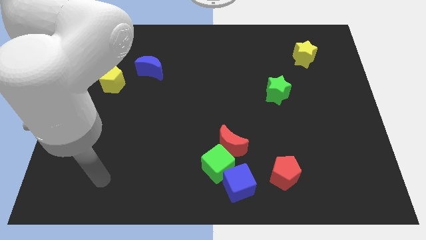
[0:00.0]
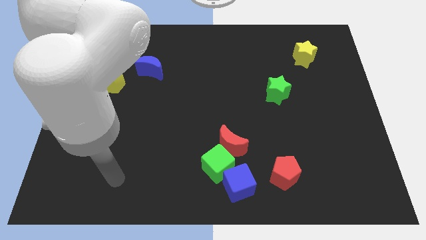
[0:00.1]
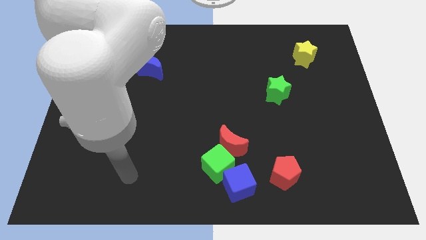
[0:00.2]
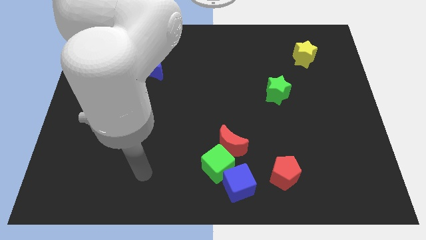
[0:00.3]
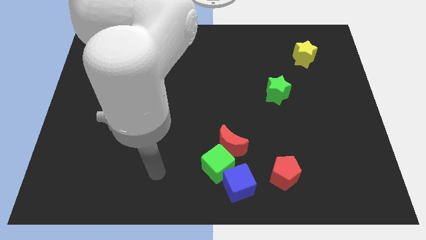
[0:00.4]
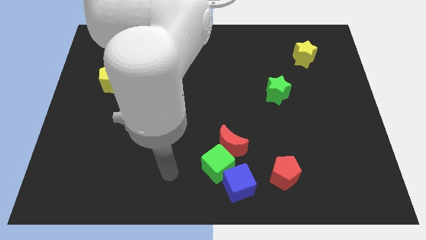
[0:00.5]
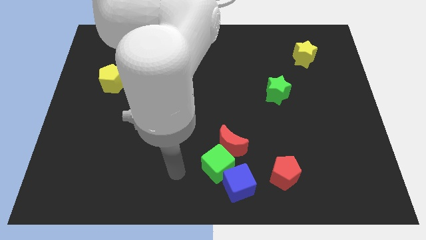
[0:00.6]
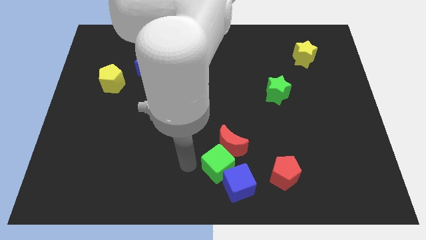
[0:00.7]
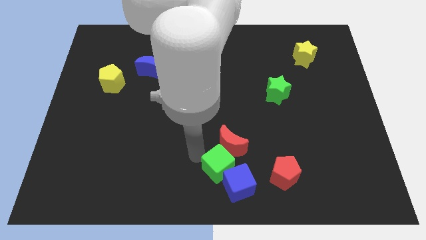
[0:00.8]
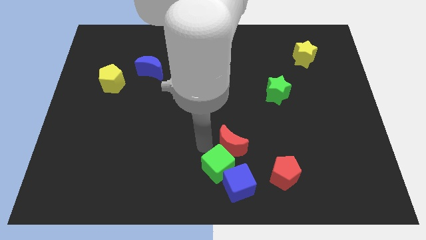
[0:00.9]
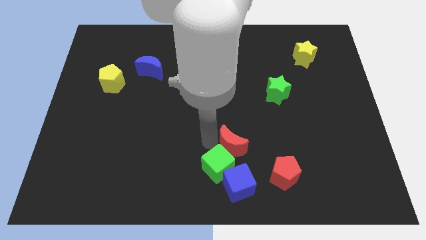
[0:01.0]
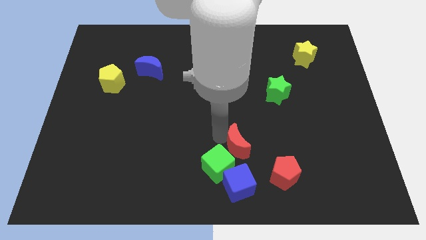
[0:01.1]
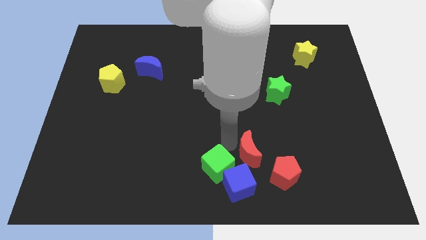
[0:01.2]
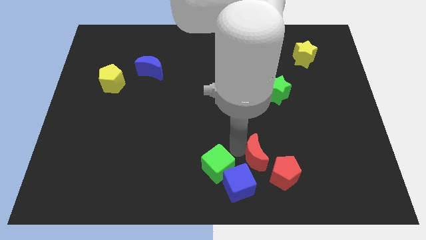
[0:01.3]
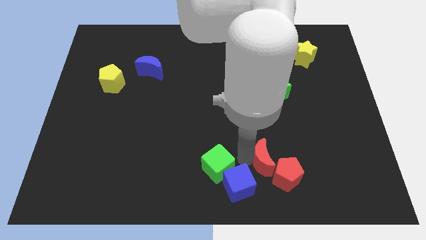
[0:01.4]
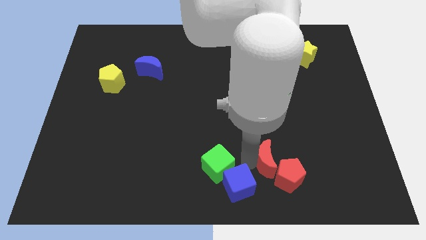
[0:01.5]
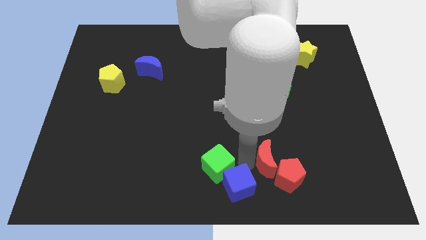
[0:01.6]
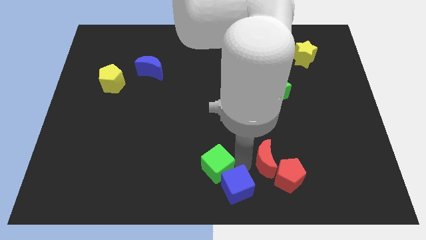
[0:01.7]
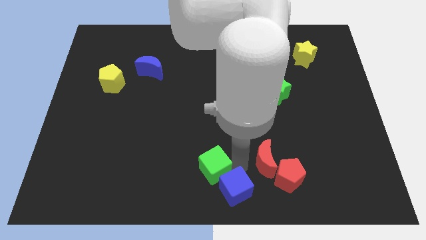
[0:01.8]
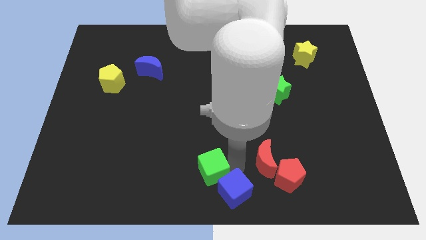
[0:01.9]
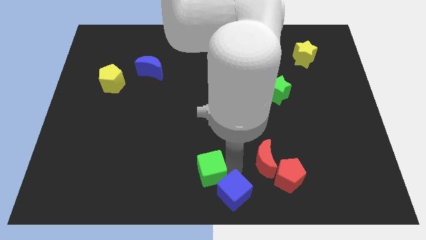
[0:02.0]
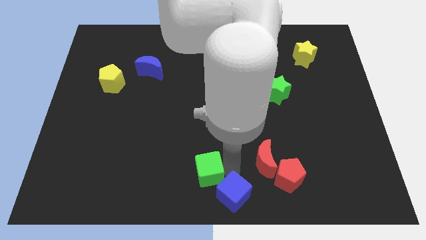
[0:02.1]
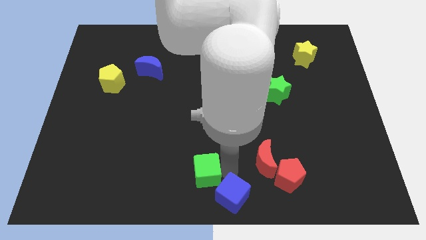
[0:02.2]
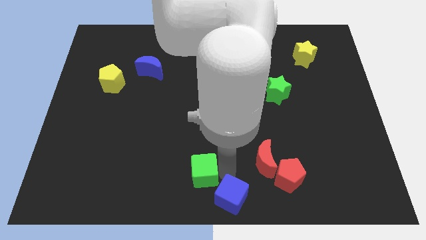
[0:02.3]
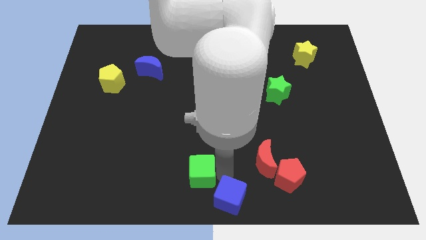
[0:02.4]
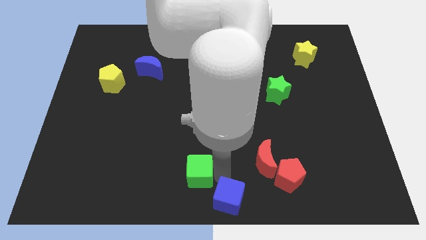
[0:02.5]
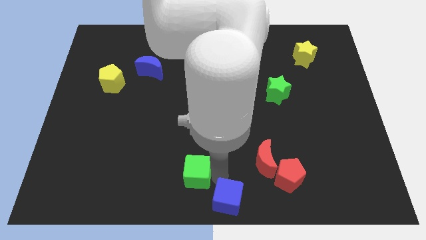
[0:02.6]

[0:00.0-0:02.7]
move the green cube away from the red moon and blue cube

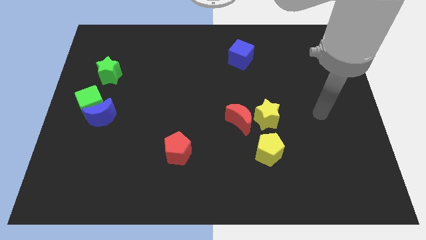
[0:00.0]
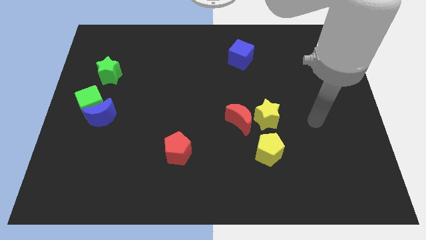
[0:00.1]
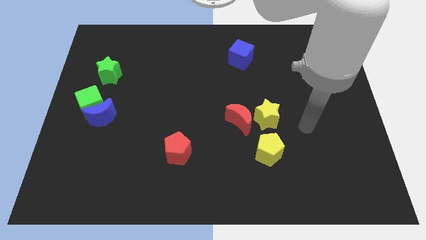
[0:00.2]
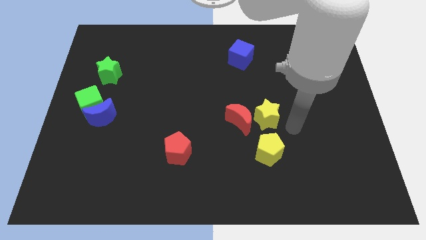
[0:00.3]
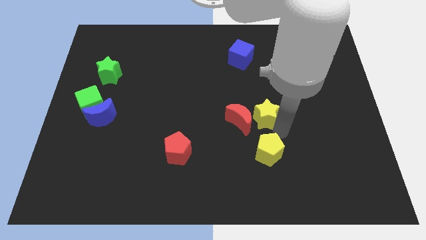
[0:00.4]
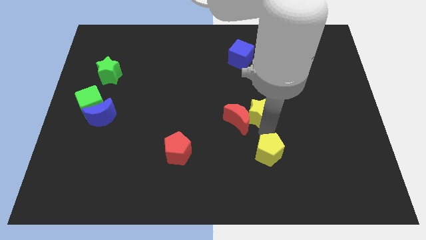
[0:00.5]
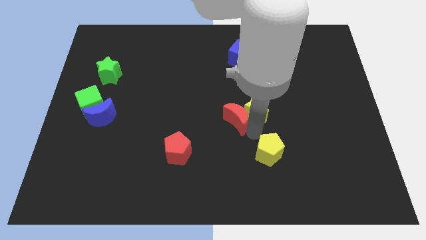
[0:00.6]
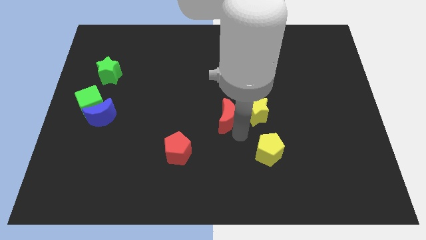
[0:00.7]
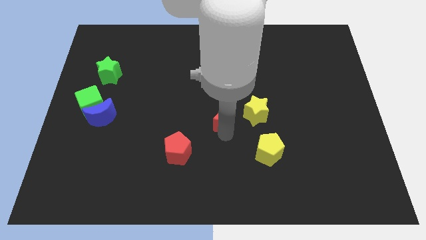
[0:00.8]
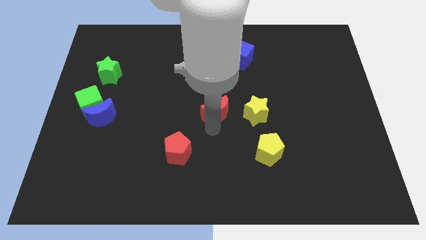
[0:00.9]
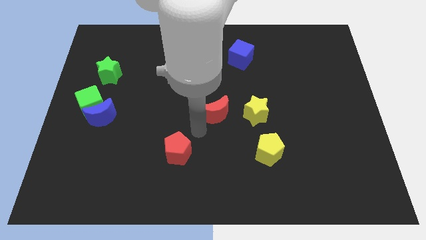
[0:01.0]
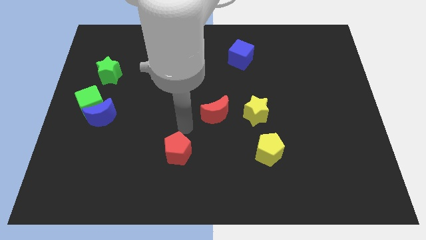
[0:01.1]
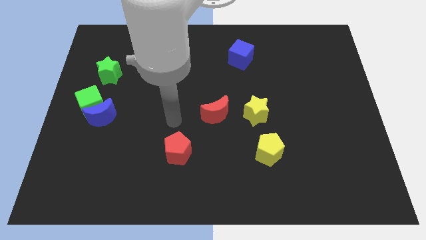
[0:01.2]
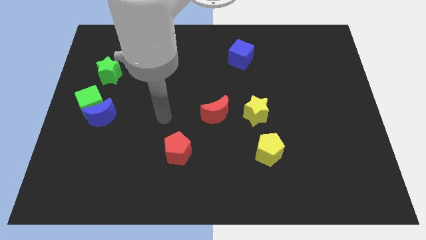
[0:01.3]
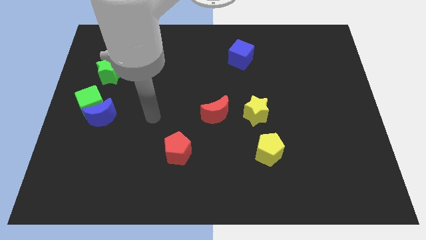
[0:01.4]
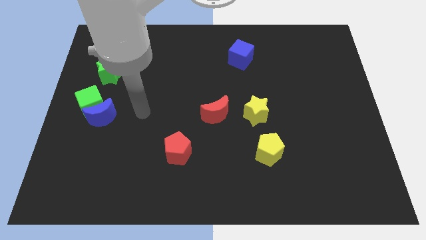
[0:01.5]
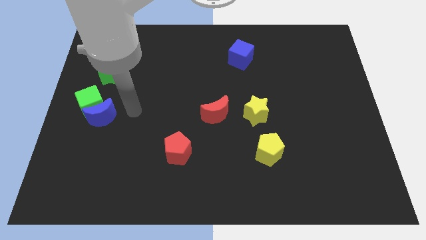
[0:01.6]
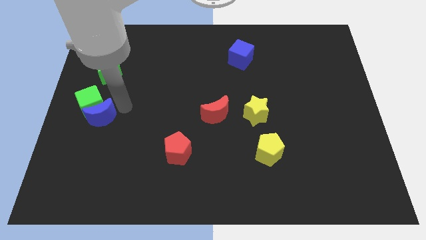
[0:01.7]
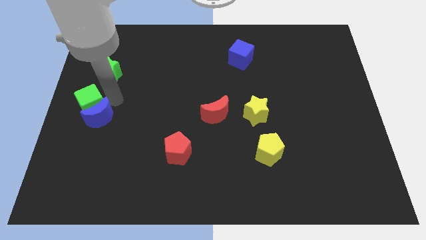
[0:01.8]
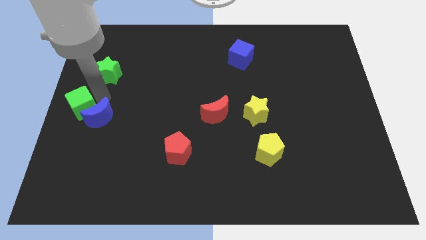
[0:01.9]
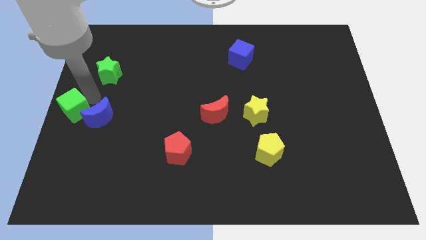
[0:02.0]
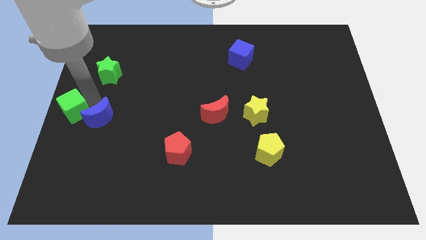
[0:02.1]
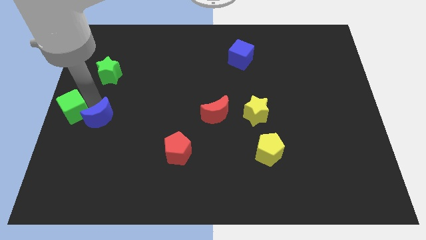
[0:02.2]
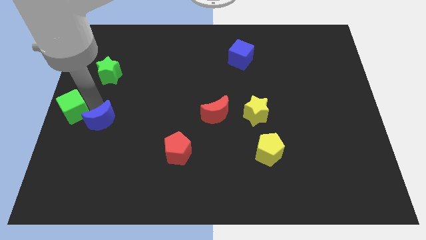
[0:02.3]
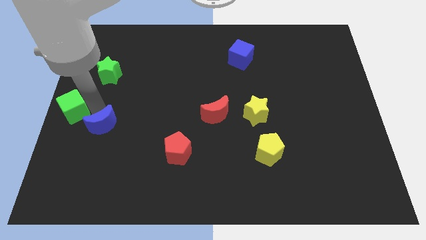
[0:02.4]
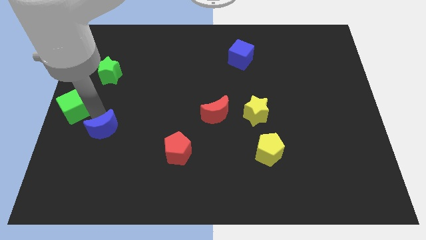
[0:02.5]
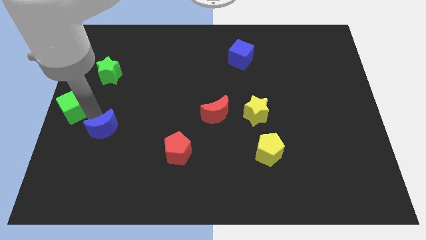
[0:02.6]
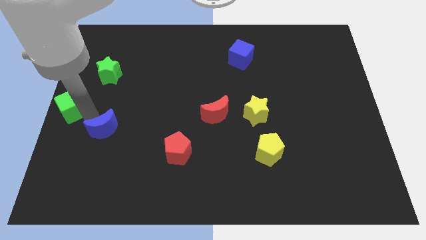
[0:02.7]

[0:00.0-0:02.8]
separate the blue moon from the green cube

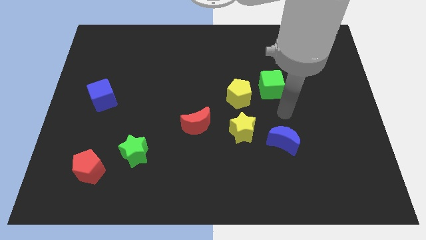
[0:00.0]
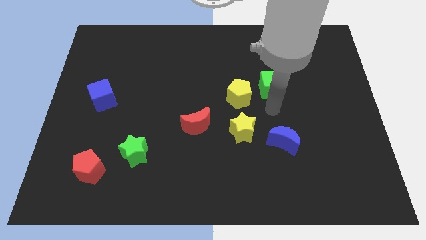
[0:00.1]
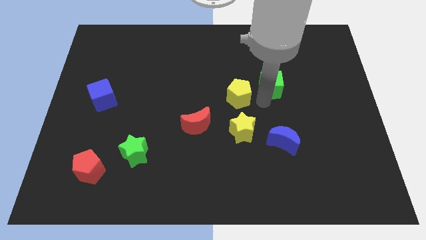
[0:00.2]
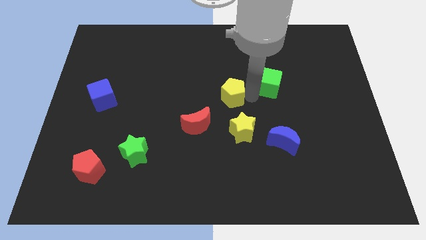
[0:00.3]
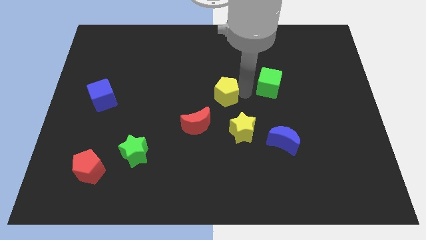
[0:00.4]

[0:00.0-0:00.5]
move the green cube away from the yellow pentagon

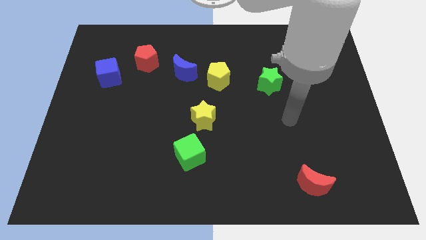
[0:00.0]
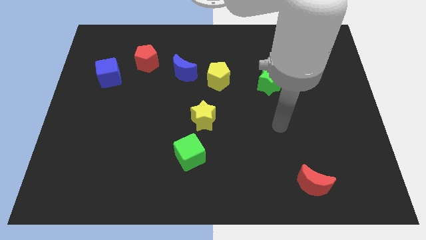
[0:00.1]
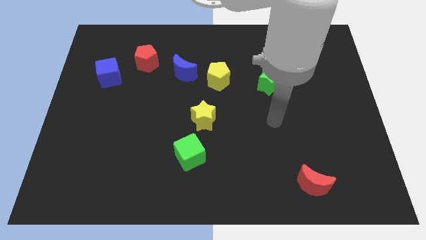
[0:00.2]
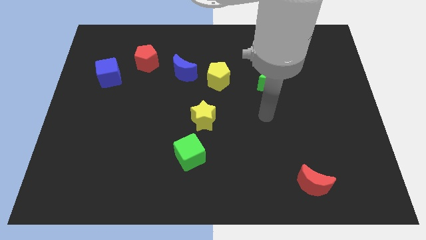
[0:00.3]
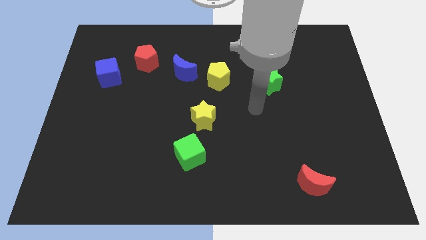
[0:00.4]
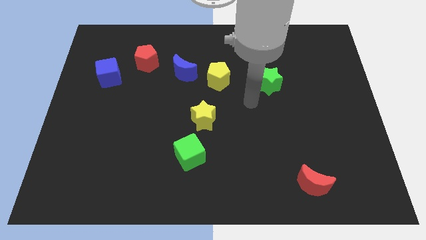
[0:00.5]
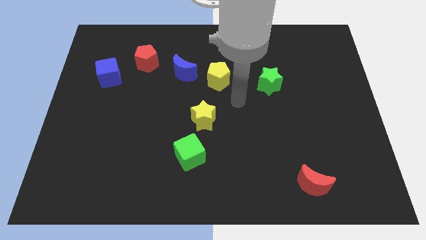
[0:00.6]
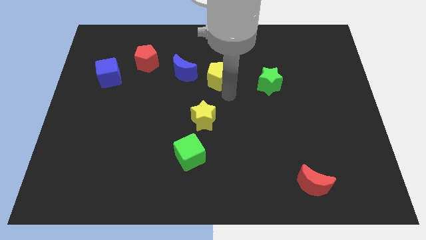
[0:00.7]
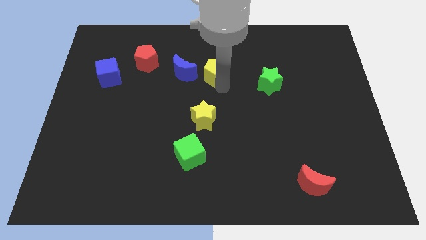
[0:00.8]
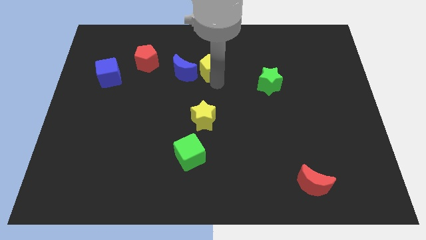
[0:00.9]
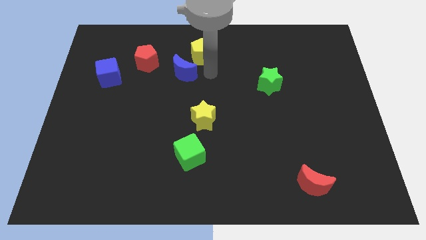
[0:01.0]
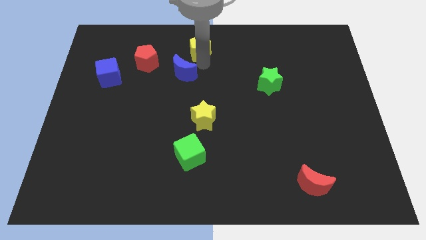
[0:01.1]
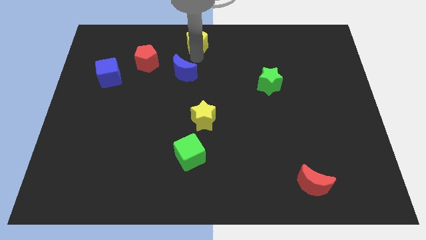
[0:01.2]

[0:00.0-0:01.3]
pull the blue moon apart from the yellow pentagon

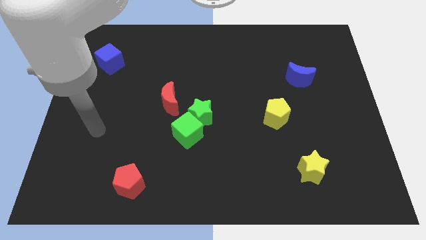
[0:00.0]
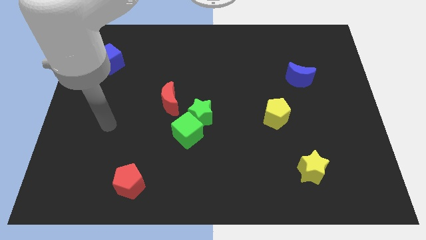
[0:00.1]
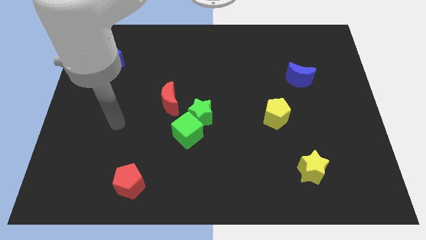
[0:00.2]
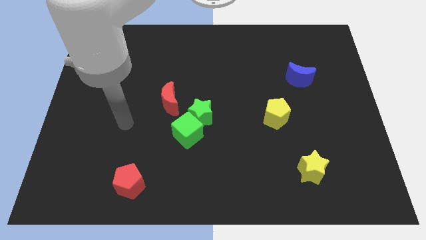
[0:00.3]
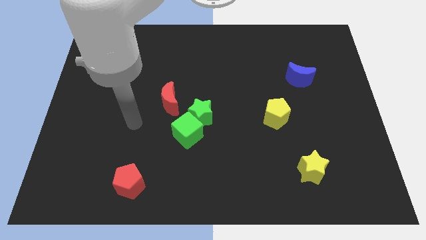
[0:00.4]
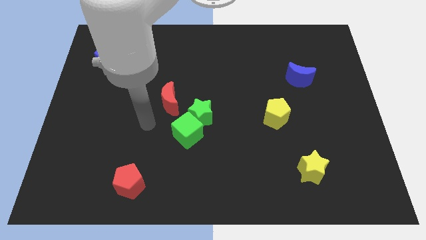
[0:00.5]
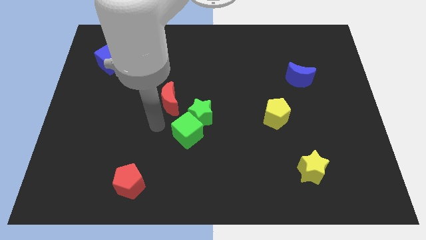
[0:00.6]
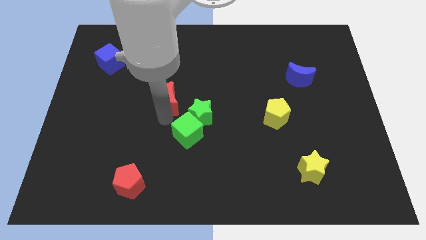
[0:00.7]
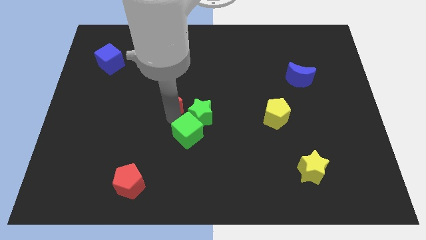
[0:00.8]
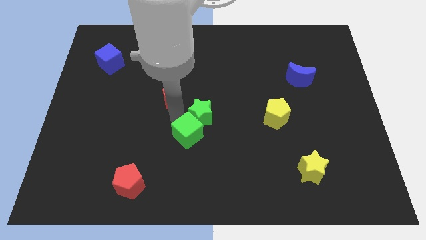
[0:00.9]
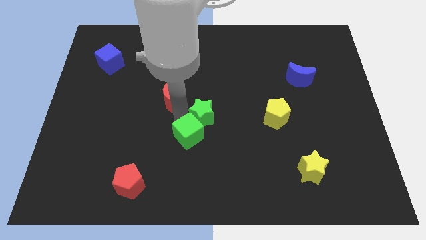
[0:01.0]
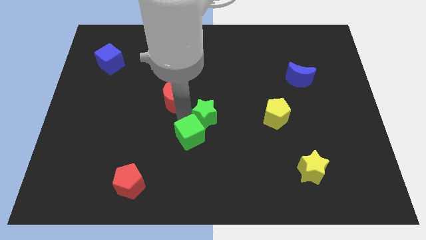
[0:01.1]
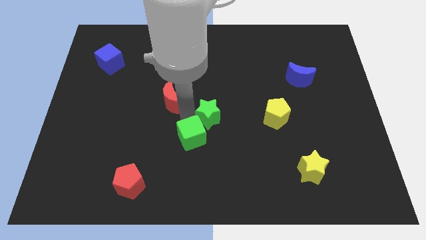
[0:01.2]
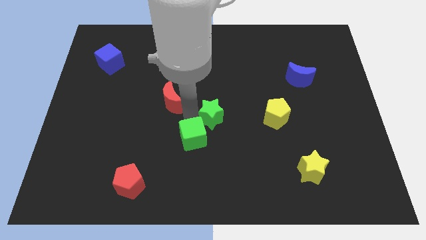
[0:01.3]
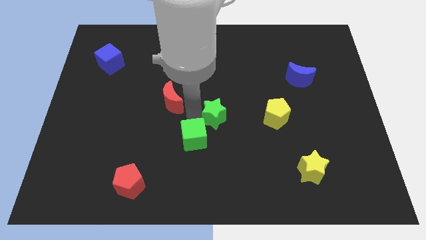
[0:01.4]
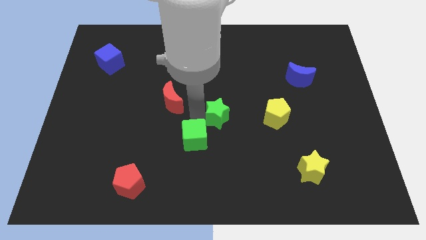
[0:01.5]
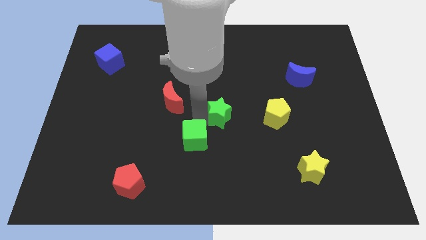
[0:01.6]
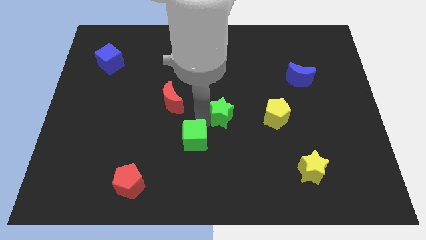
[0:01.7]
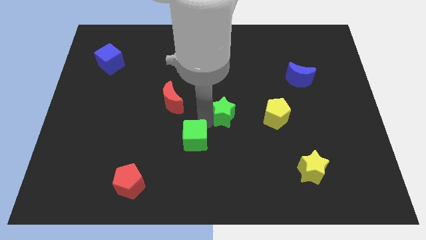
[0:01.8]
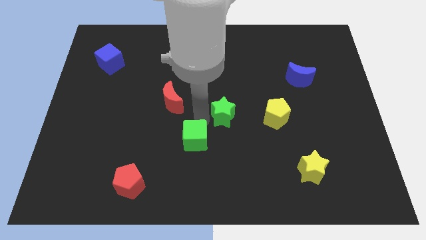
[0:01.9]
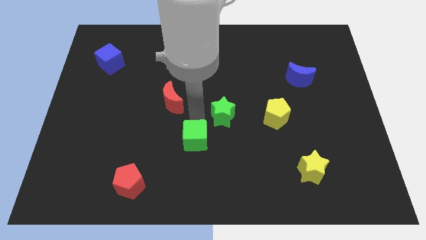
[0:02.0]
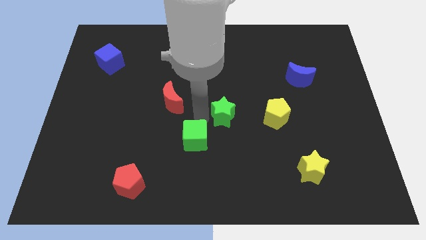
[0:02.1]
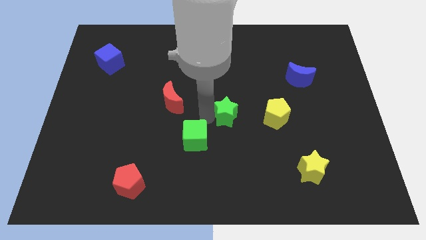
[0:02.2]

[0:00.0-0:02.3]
move the green star away from the green cube and red moon
